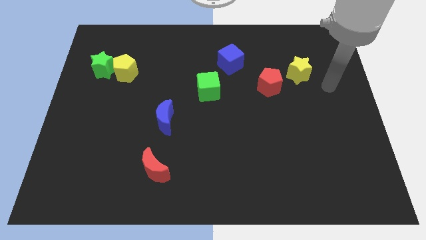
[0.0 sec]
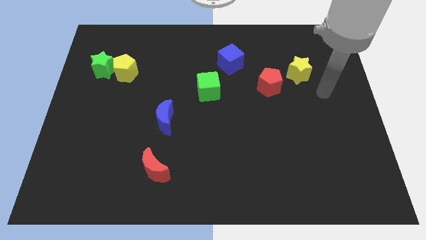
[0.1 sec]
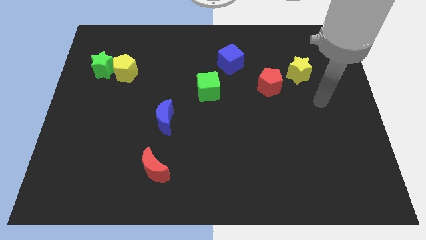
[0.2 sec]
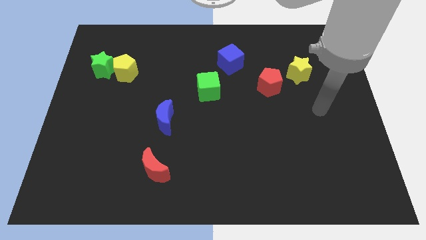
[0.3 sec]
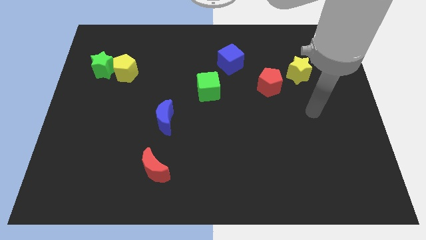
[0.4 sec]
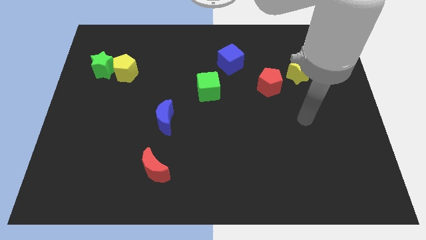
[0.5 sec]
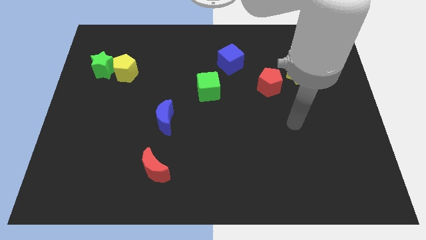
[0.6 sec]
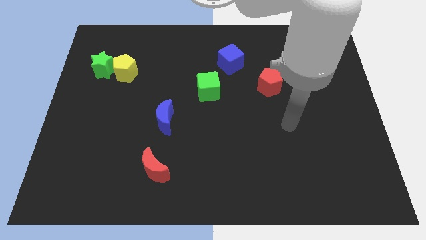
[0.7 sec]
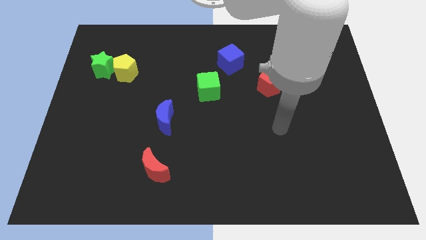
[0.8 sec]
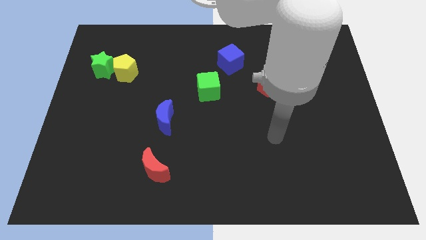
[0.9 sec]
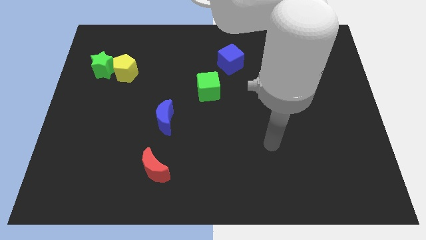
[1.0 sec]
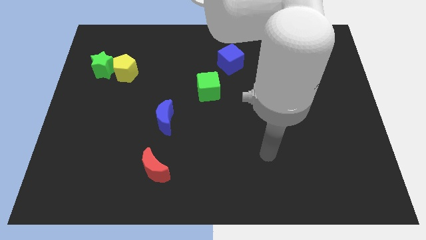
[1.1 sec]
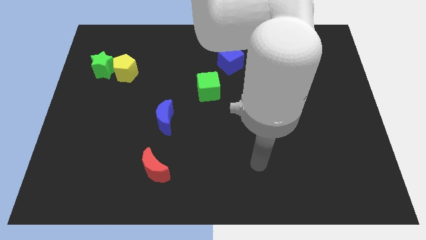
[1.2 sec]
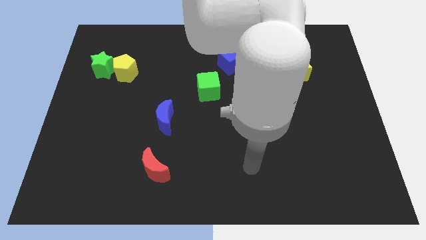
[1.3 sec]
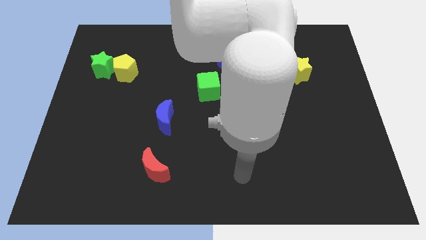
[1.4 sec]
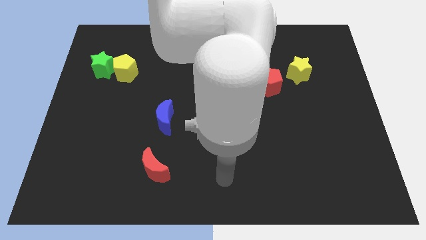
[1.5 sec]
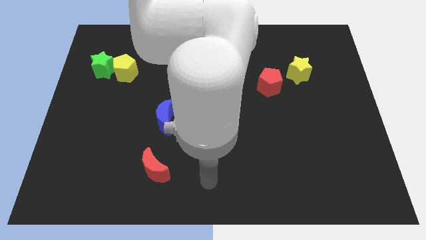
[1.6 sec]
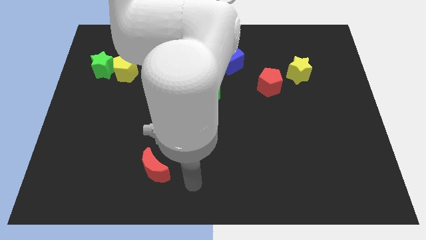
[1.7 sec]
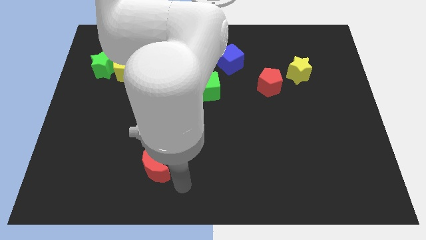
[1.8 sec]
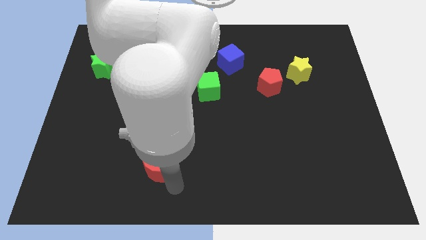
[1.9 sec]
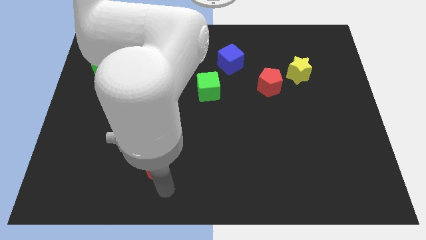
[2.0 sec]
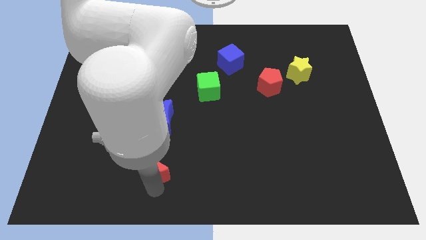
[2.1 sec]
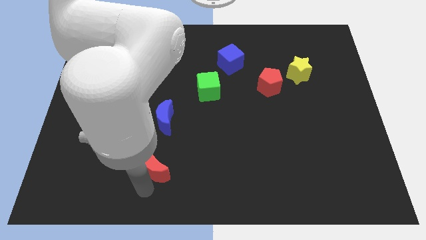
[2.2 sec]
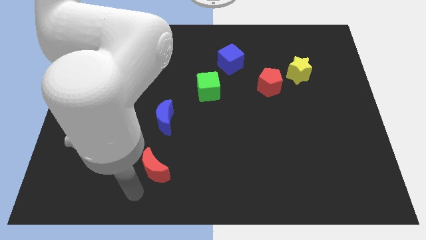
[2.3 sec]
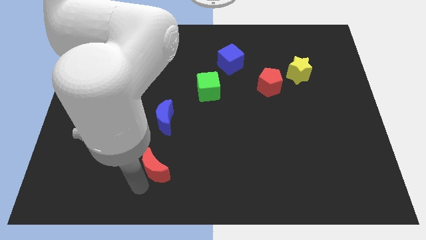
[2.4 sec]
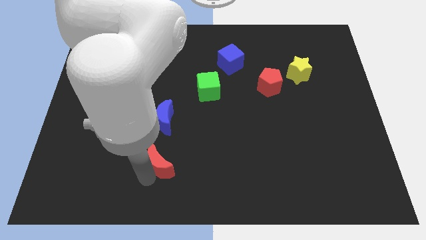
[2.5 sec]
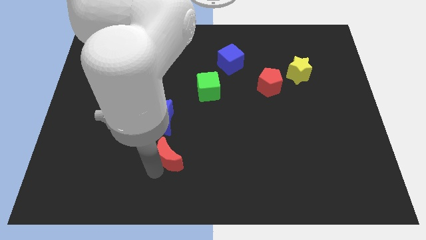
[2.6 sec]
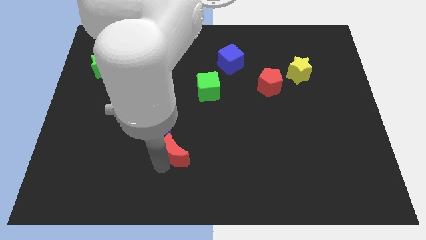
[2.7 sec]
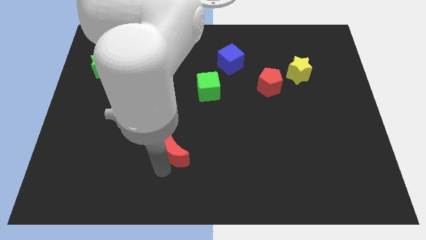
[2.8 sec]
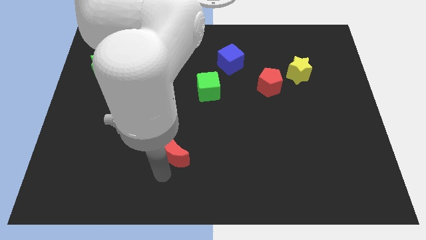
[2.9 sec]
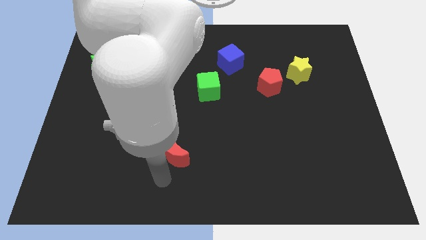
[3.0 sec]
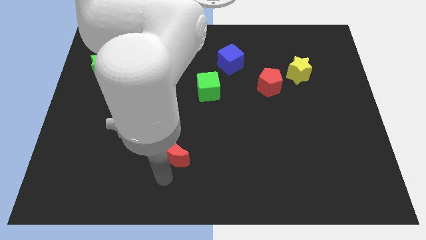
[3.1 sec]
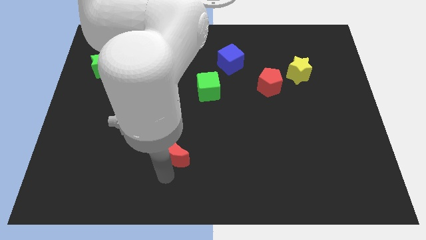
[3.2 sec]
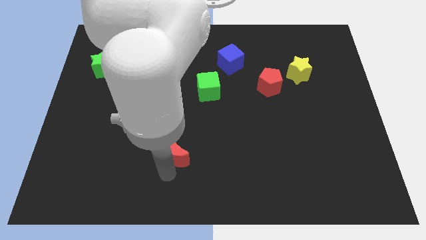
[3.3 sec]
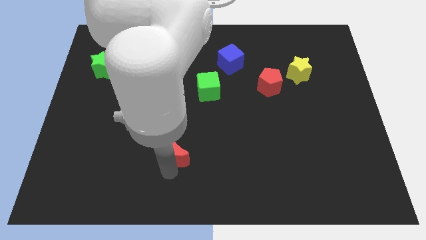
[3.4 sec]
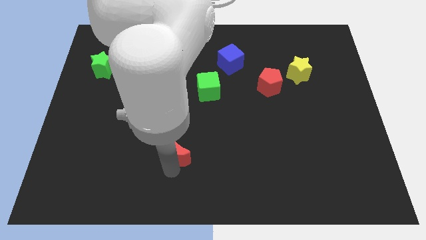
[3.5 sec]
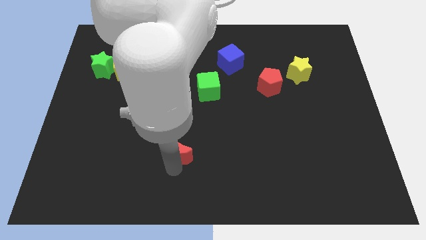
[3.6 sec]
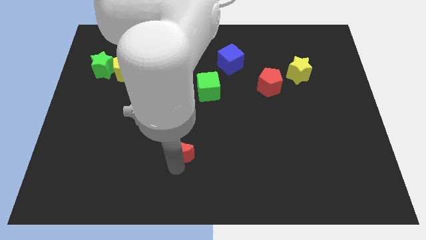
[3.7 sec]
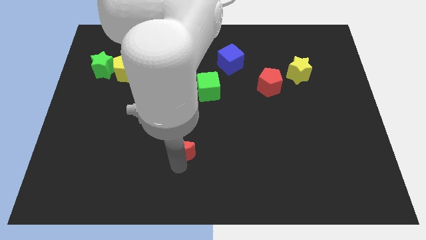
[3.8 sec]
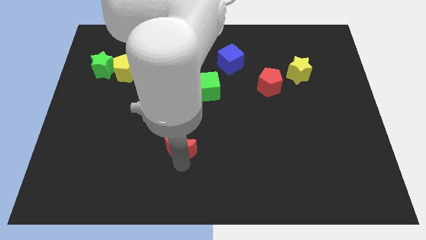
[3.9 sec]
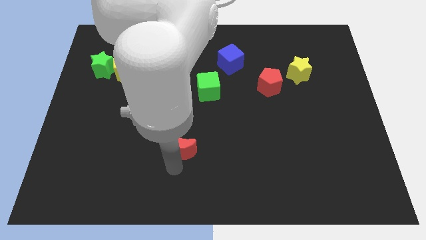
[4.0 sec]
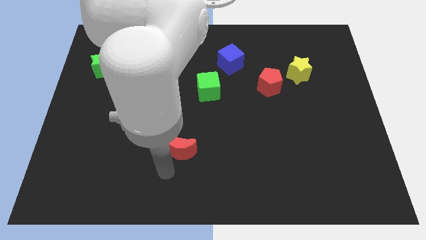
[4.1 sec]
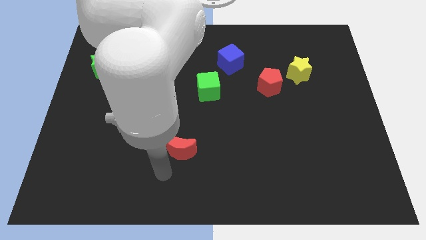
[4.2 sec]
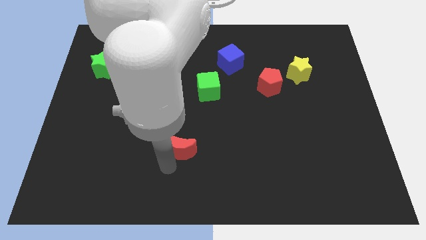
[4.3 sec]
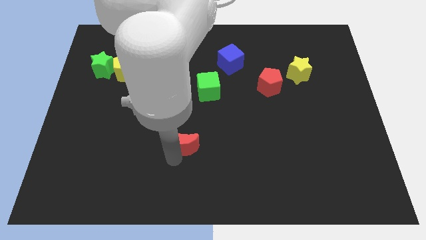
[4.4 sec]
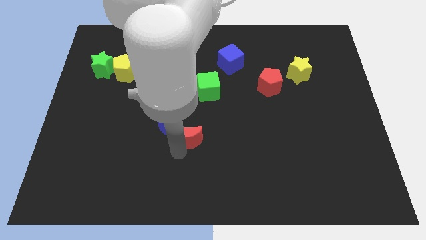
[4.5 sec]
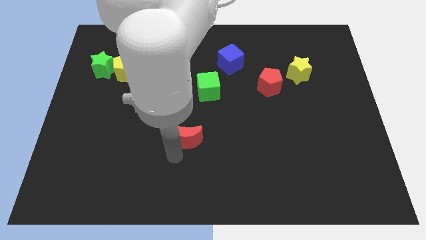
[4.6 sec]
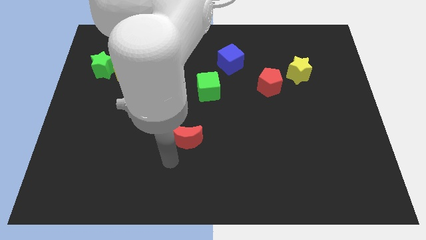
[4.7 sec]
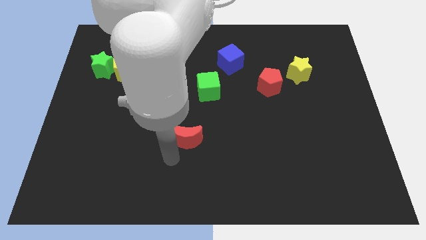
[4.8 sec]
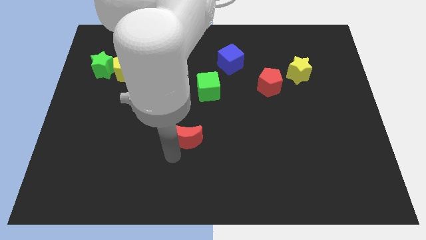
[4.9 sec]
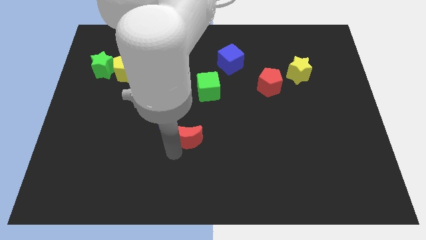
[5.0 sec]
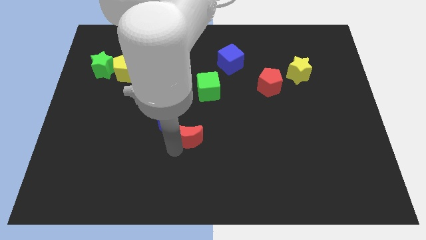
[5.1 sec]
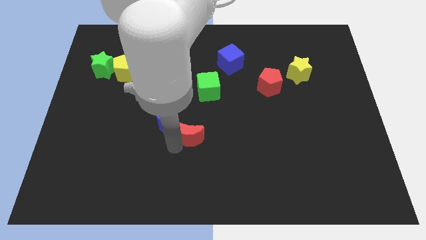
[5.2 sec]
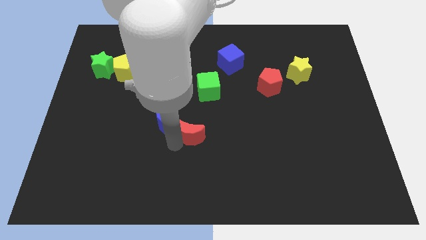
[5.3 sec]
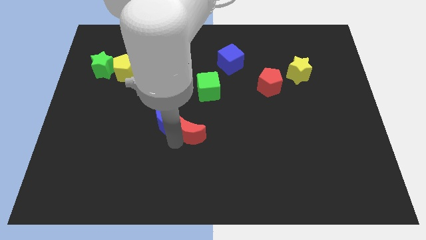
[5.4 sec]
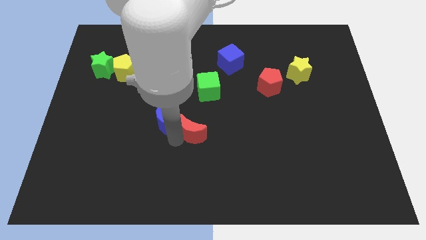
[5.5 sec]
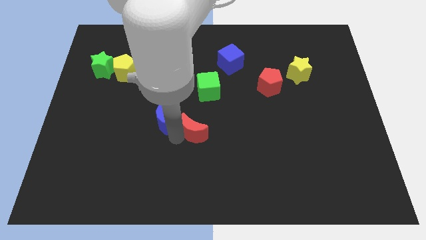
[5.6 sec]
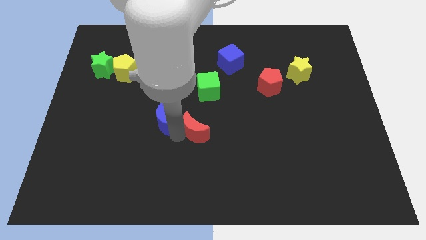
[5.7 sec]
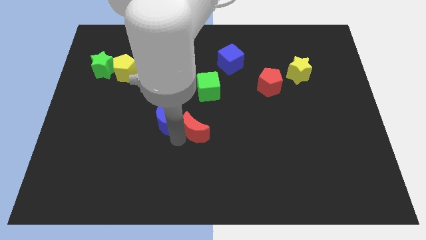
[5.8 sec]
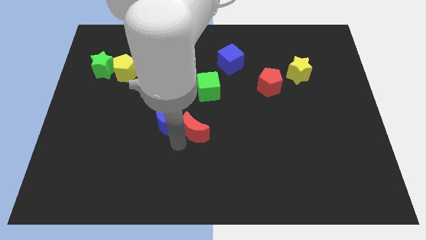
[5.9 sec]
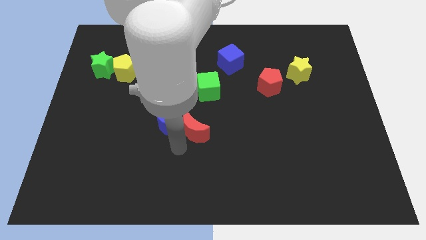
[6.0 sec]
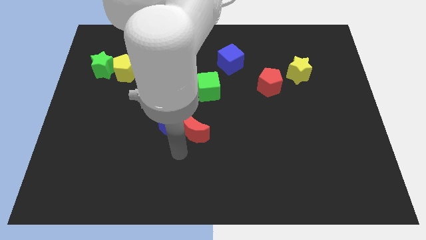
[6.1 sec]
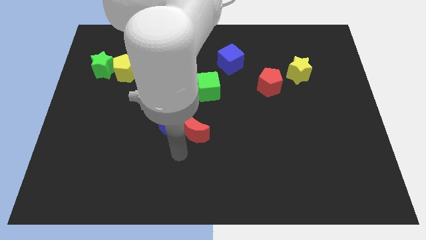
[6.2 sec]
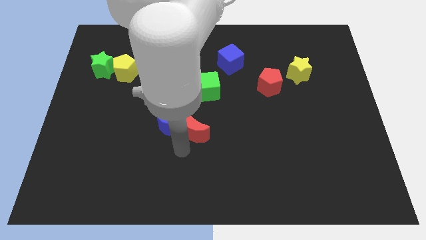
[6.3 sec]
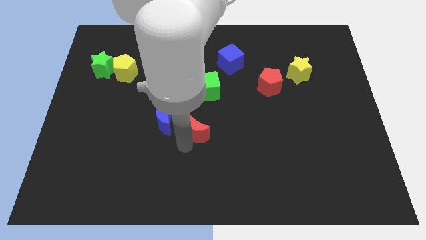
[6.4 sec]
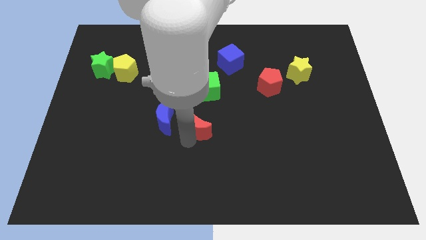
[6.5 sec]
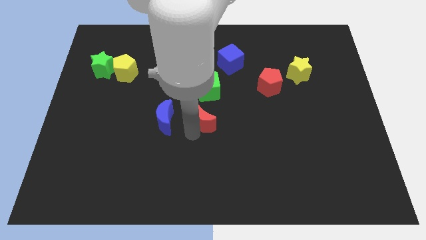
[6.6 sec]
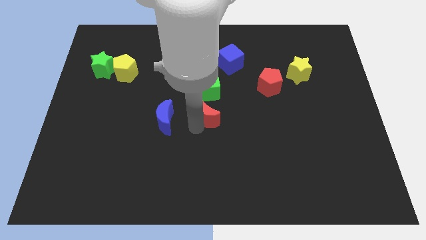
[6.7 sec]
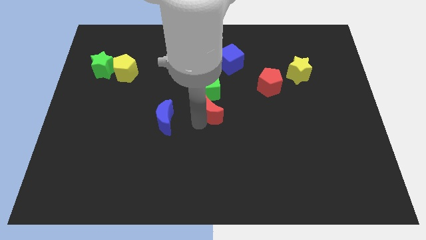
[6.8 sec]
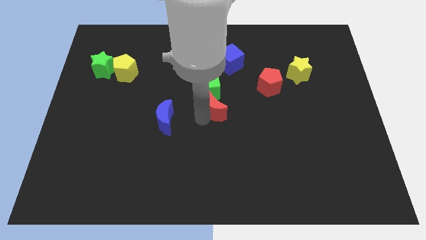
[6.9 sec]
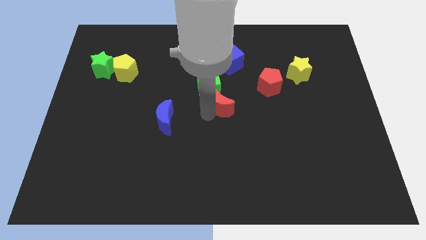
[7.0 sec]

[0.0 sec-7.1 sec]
put the red moon to the bottom side of the blue cube

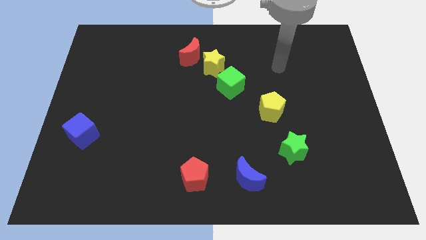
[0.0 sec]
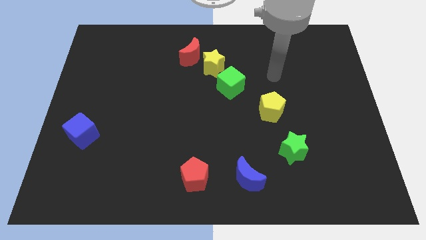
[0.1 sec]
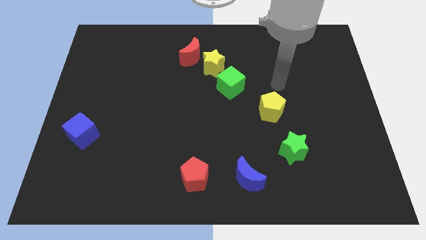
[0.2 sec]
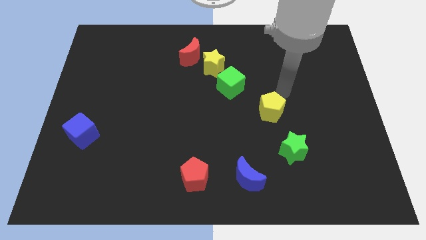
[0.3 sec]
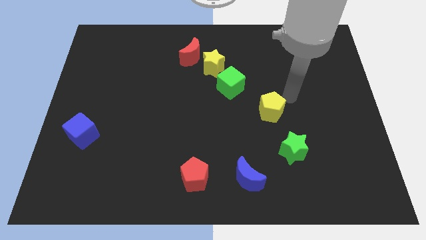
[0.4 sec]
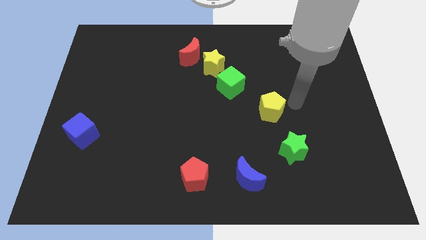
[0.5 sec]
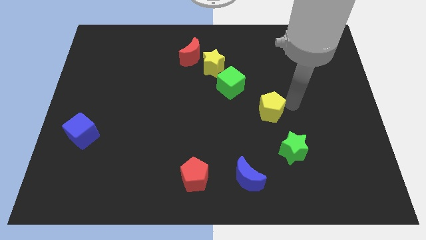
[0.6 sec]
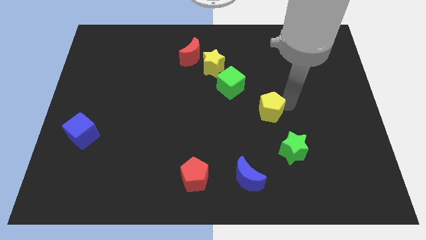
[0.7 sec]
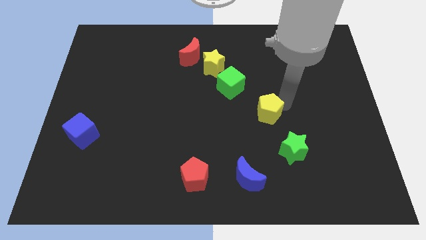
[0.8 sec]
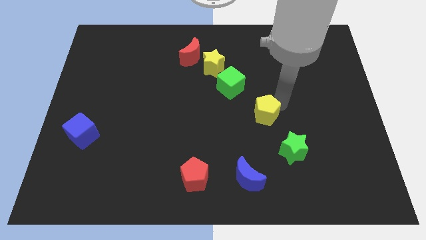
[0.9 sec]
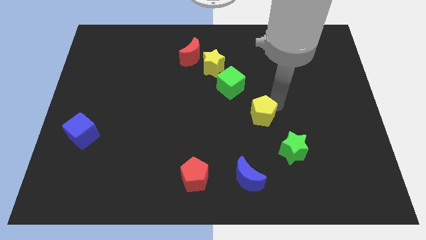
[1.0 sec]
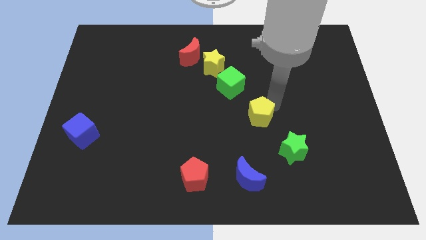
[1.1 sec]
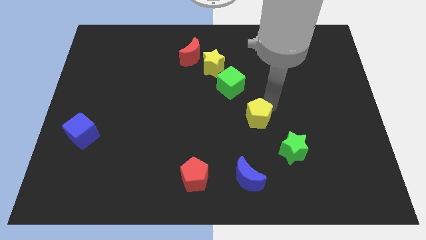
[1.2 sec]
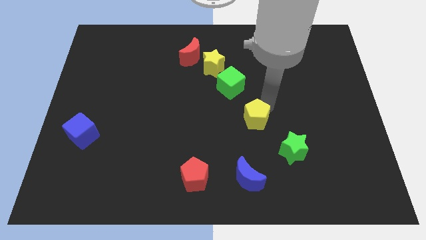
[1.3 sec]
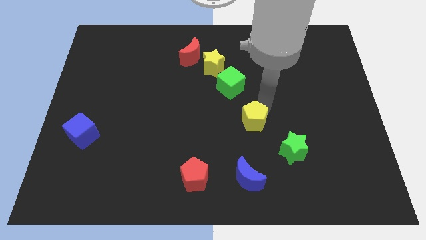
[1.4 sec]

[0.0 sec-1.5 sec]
slide the yellow pentagon to the bottom side of the green cube
